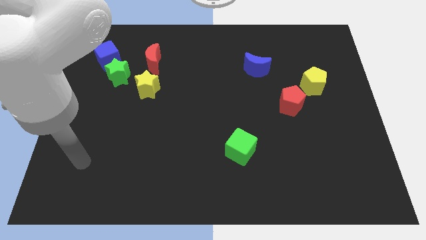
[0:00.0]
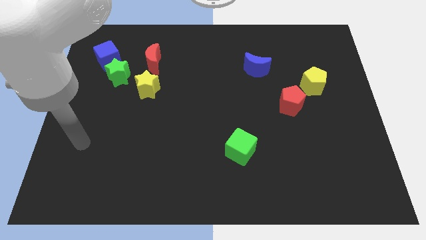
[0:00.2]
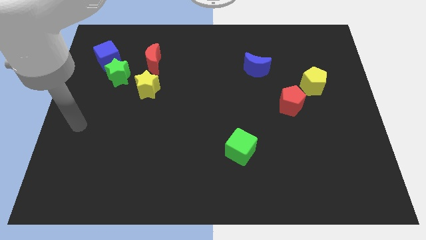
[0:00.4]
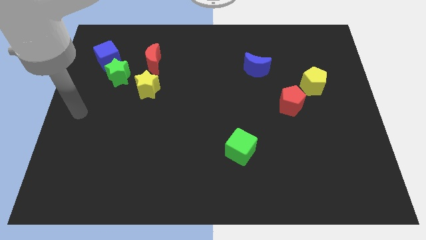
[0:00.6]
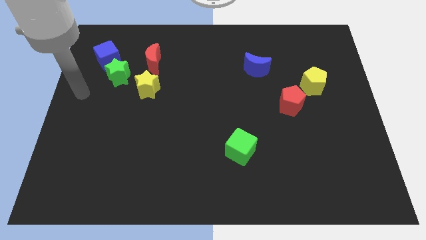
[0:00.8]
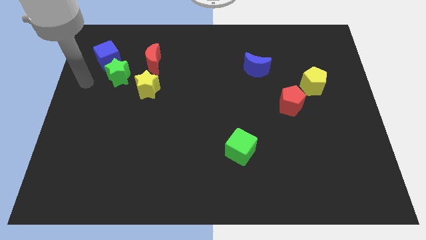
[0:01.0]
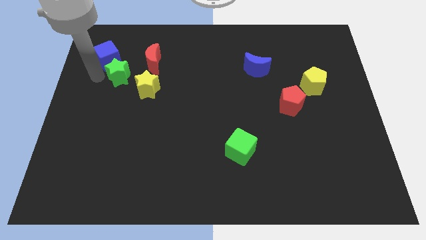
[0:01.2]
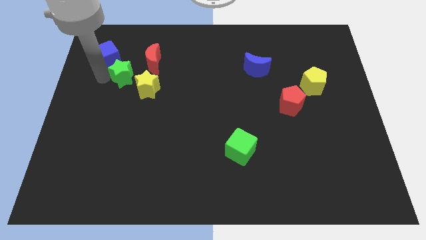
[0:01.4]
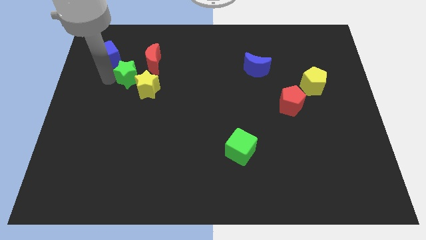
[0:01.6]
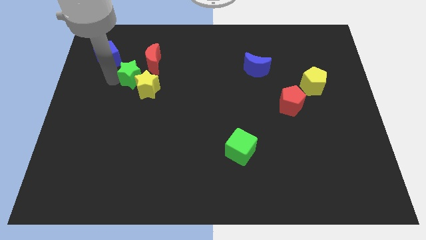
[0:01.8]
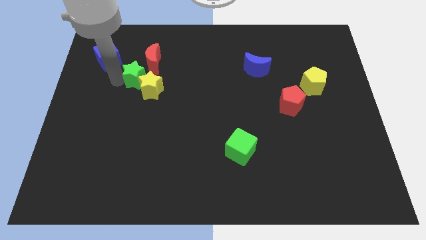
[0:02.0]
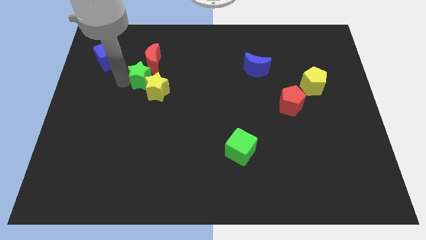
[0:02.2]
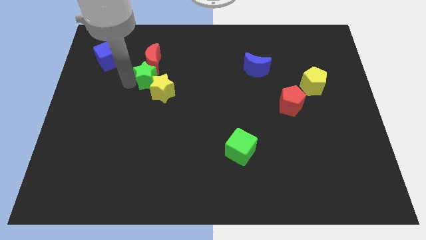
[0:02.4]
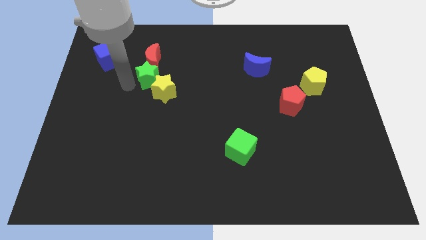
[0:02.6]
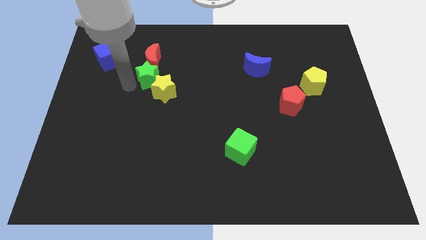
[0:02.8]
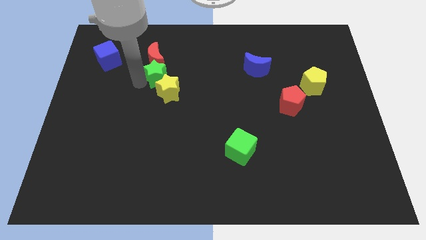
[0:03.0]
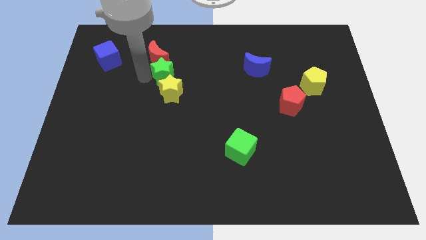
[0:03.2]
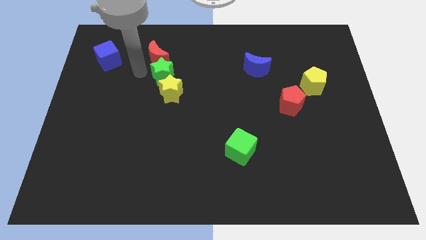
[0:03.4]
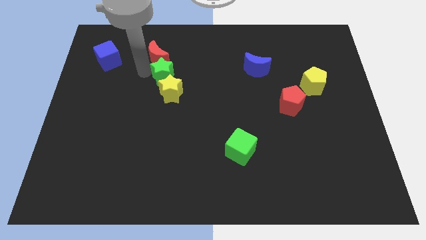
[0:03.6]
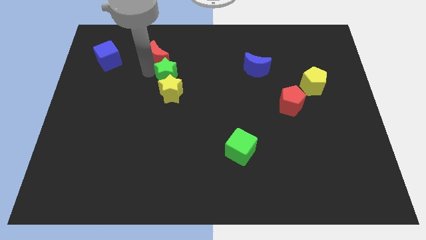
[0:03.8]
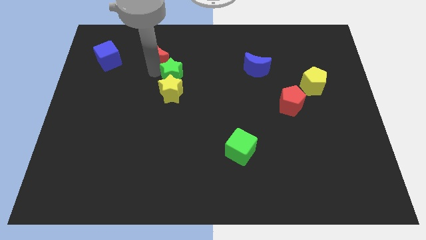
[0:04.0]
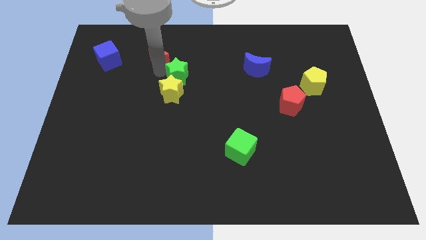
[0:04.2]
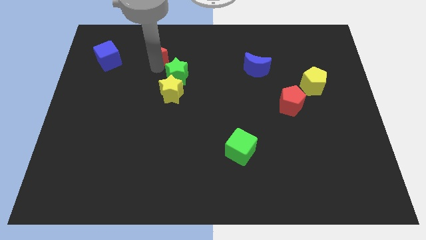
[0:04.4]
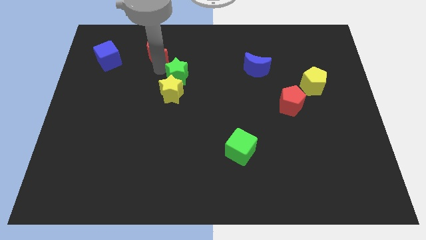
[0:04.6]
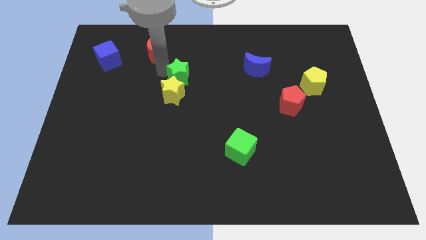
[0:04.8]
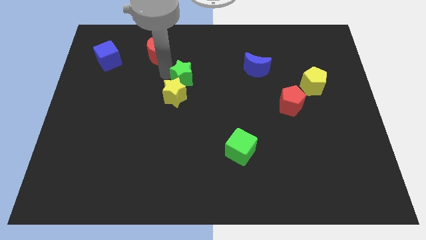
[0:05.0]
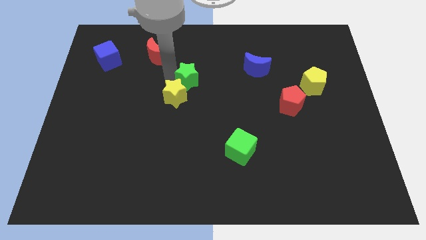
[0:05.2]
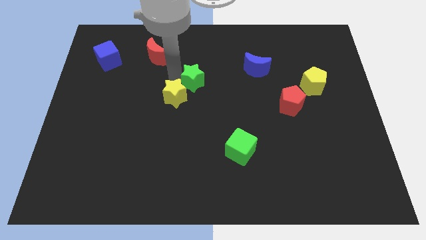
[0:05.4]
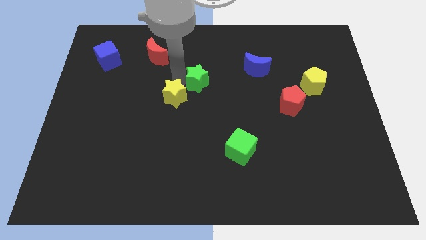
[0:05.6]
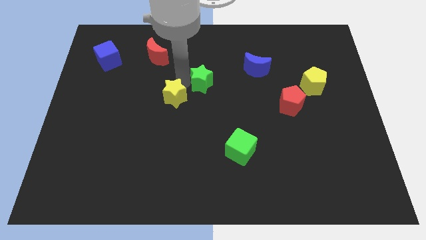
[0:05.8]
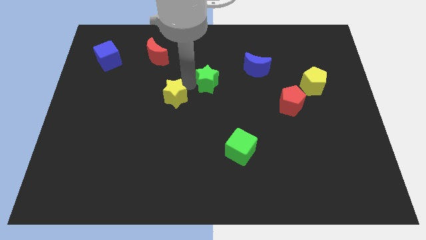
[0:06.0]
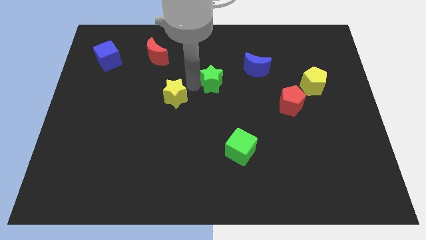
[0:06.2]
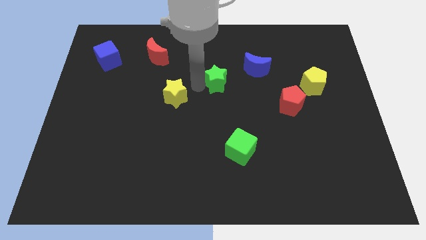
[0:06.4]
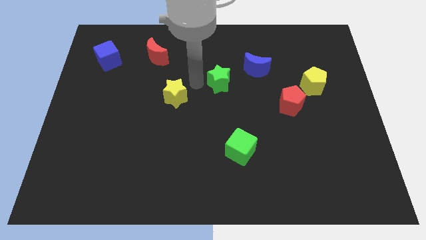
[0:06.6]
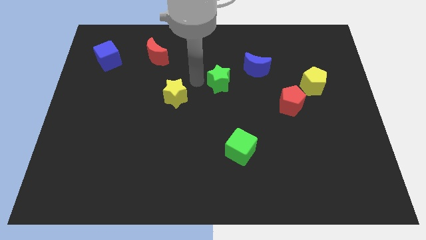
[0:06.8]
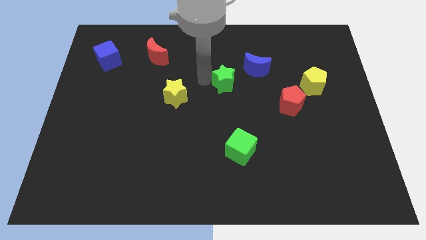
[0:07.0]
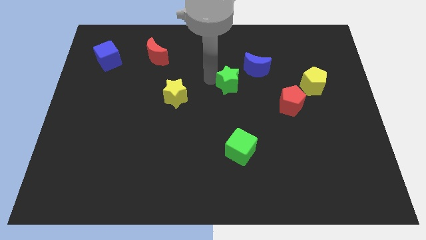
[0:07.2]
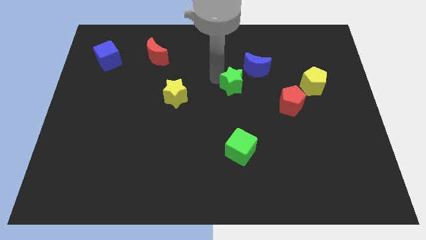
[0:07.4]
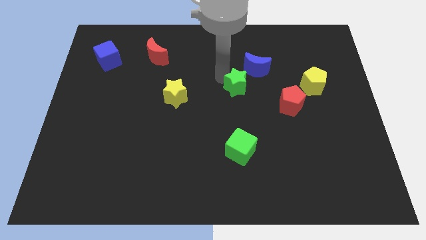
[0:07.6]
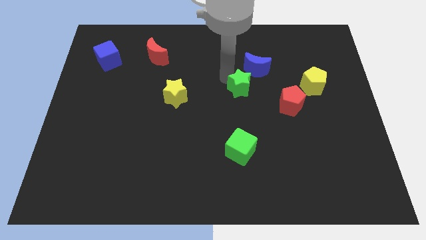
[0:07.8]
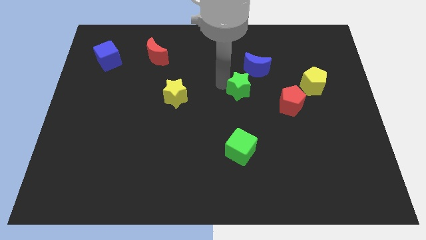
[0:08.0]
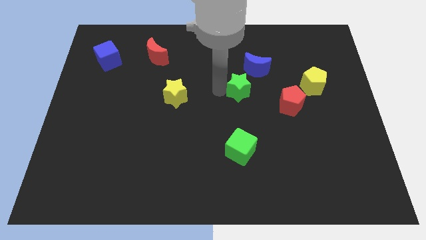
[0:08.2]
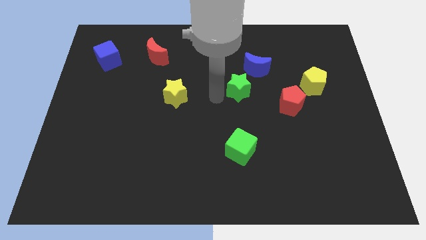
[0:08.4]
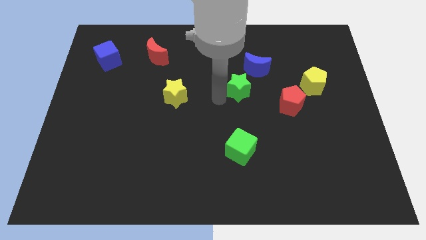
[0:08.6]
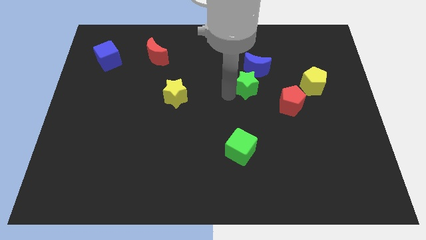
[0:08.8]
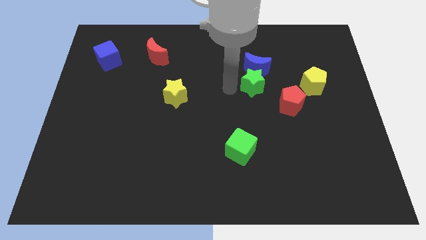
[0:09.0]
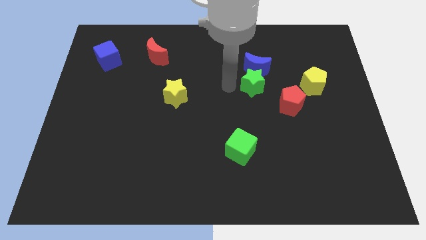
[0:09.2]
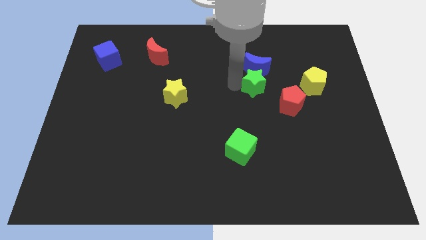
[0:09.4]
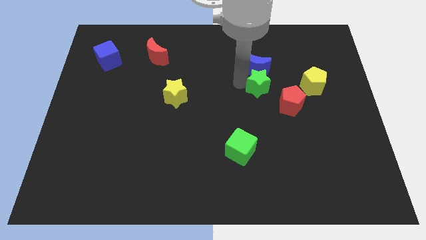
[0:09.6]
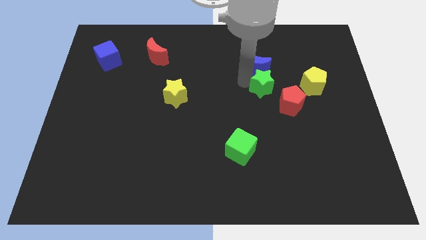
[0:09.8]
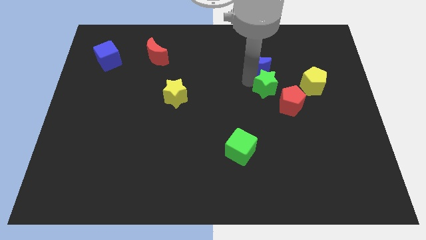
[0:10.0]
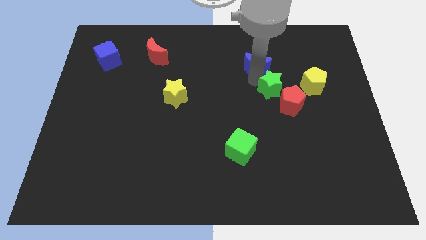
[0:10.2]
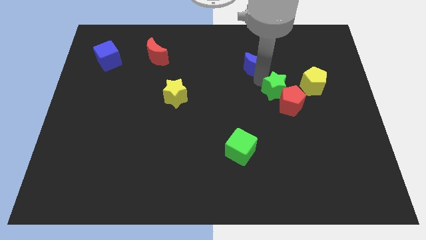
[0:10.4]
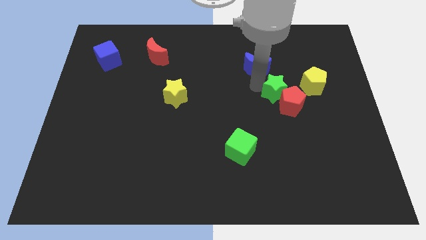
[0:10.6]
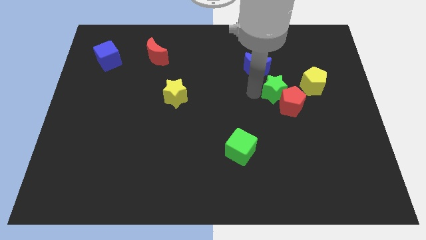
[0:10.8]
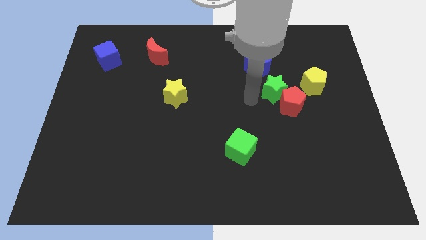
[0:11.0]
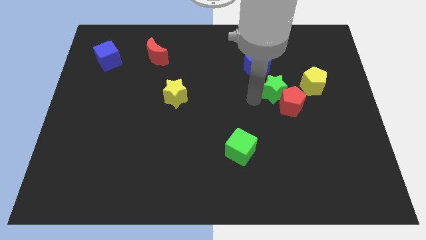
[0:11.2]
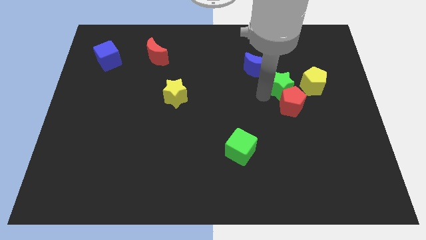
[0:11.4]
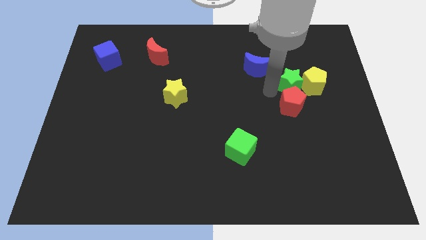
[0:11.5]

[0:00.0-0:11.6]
push the green star next to the yellow pentagon

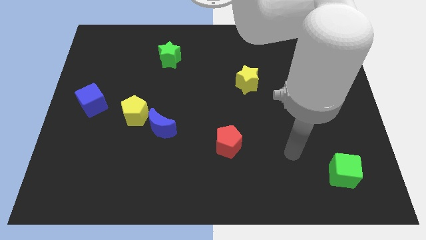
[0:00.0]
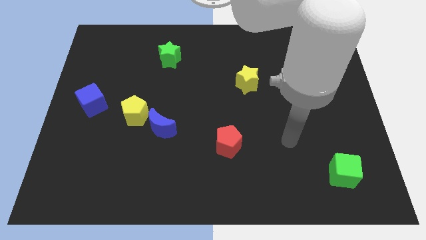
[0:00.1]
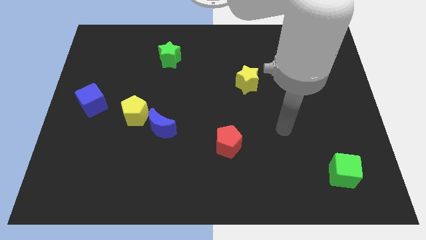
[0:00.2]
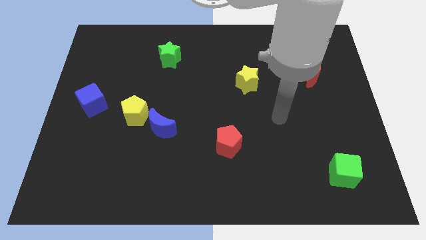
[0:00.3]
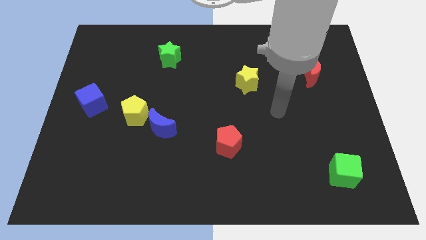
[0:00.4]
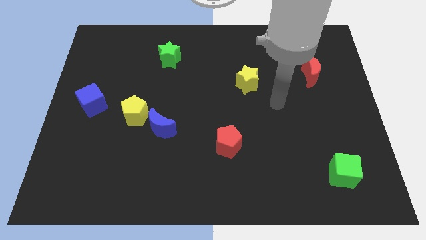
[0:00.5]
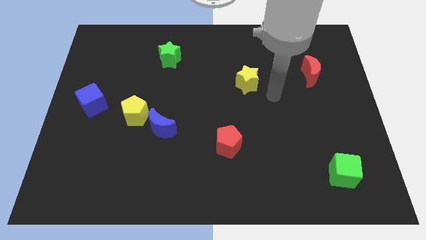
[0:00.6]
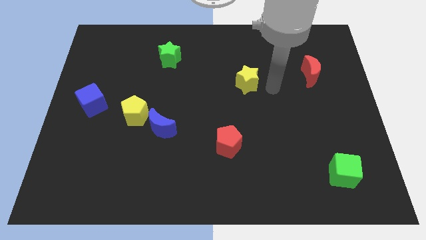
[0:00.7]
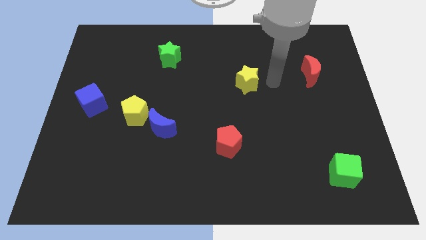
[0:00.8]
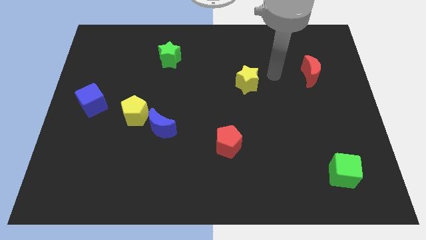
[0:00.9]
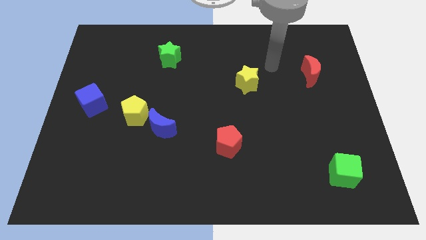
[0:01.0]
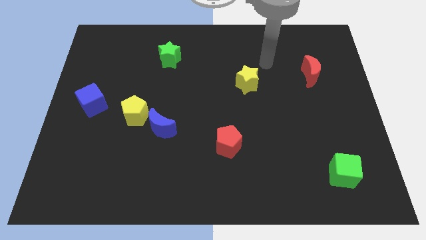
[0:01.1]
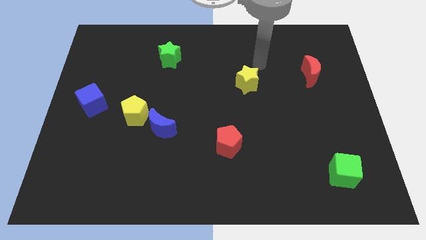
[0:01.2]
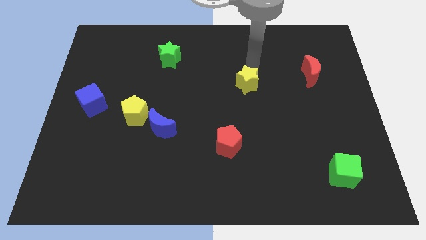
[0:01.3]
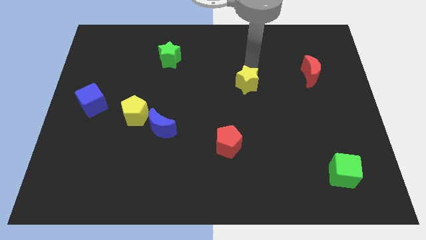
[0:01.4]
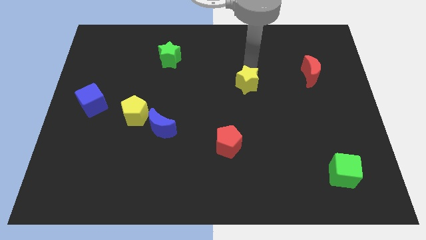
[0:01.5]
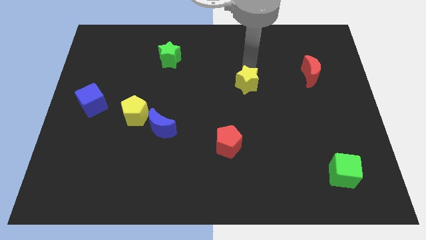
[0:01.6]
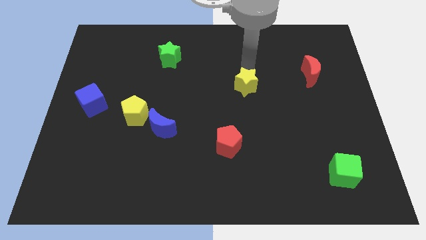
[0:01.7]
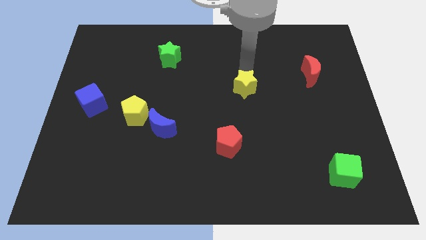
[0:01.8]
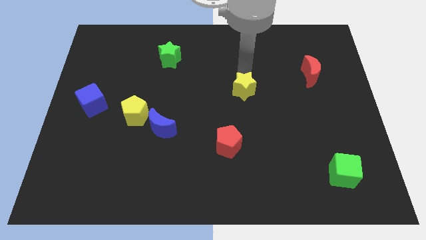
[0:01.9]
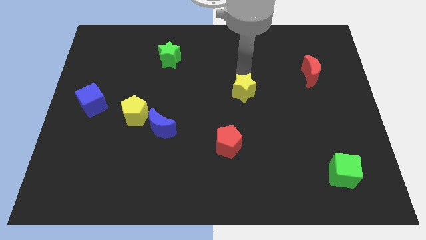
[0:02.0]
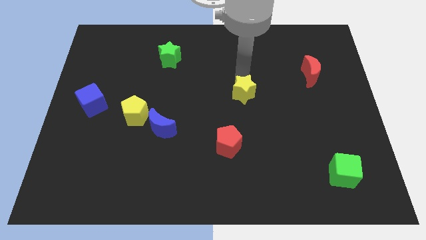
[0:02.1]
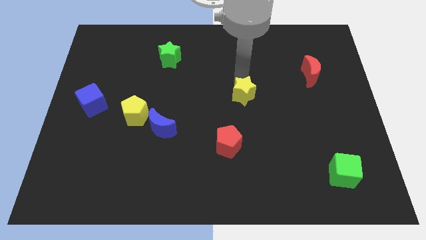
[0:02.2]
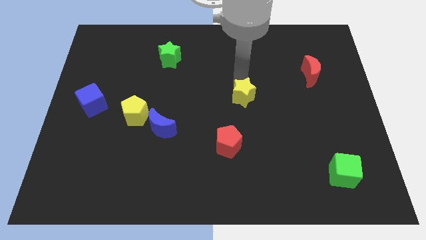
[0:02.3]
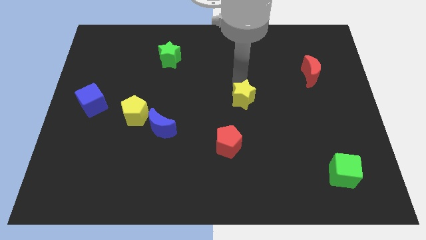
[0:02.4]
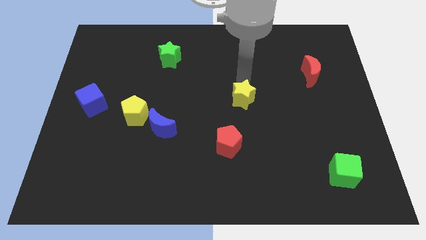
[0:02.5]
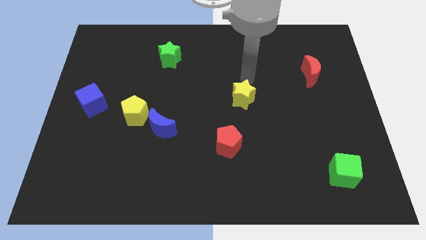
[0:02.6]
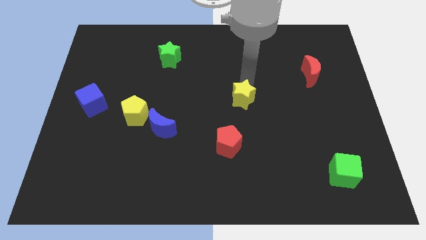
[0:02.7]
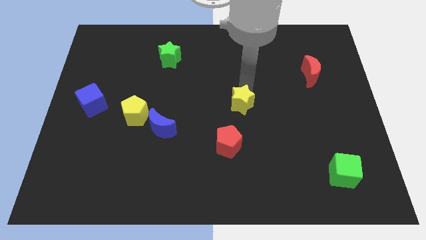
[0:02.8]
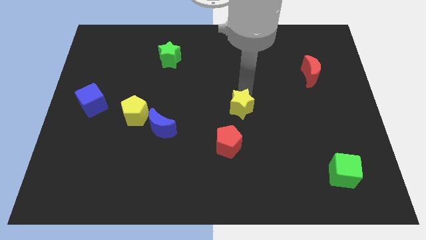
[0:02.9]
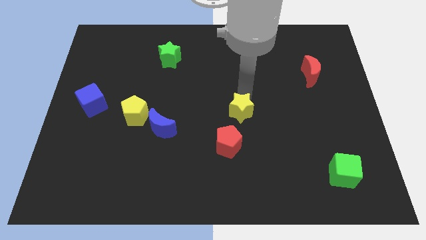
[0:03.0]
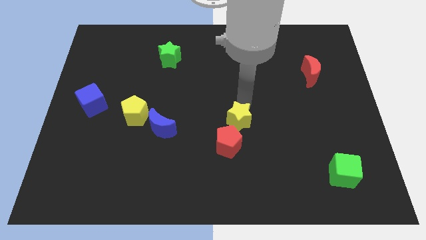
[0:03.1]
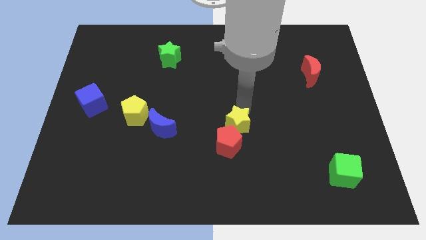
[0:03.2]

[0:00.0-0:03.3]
put the yellow star close to the red pentagon
